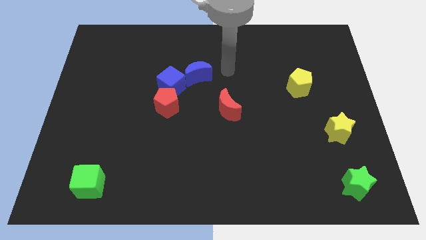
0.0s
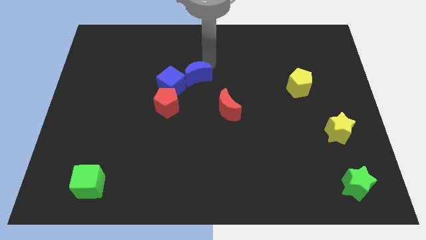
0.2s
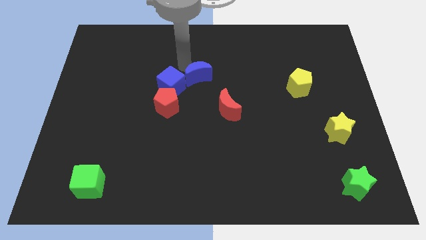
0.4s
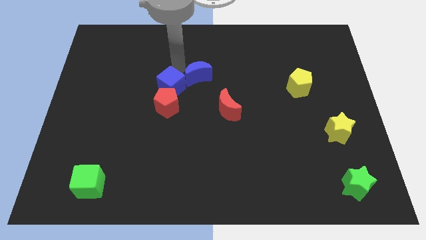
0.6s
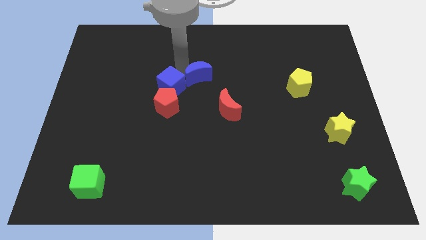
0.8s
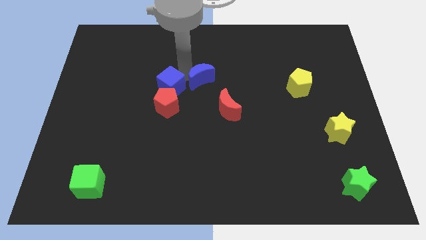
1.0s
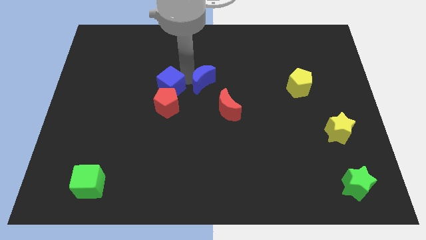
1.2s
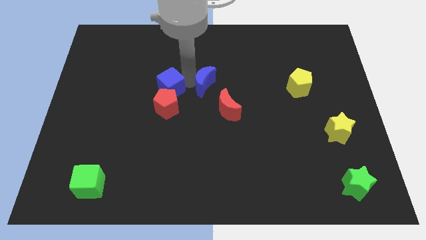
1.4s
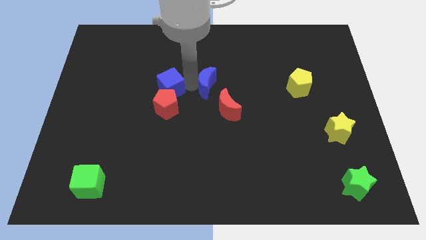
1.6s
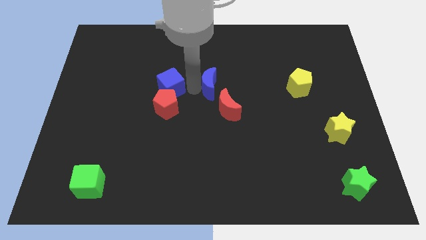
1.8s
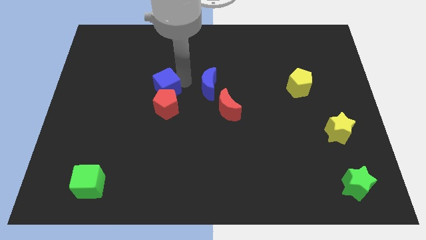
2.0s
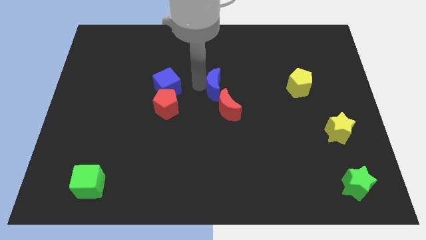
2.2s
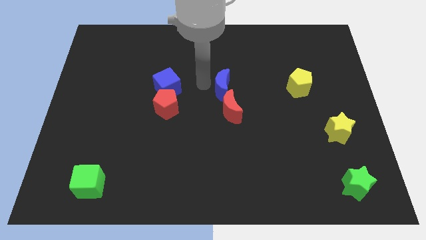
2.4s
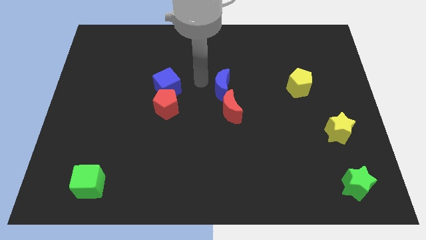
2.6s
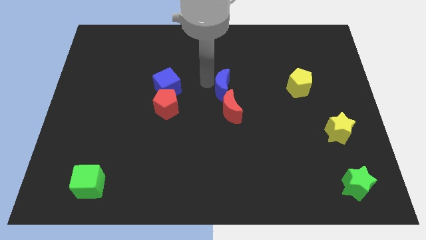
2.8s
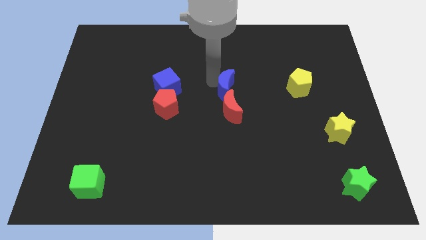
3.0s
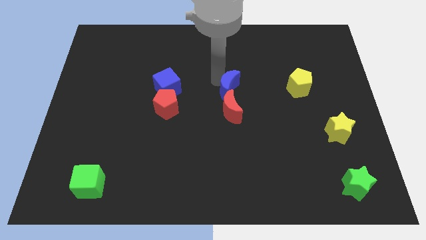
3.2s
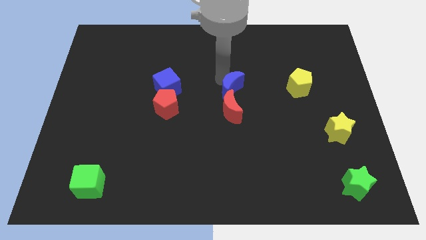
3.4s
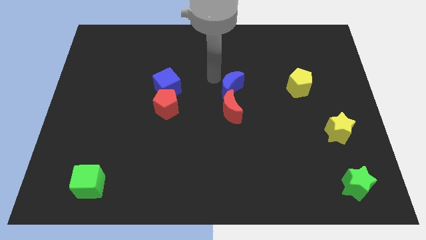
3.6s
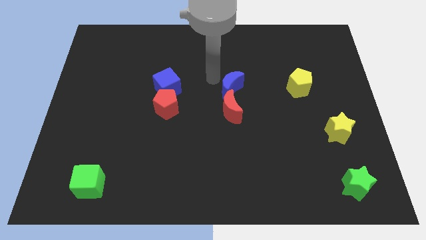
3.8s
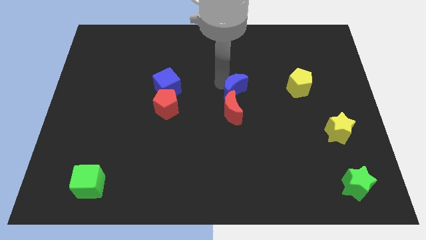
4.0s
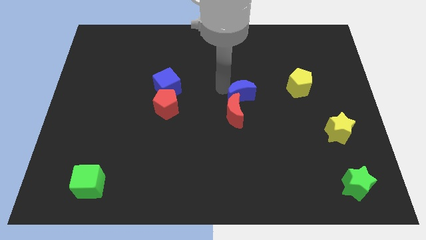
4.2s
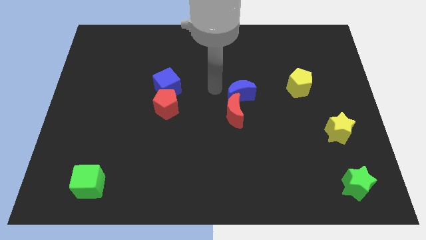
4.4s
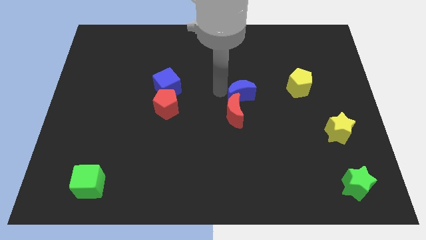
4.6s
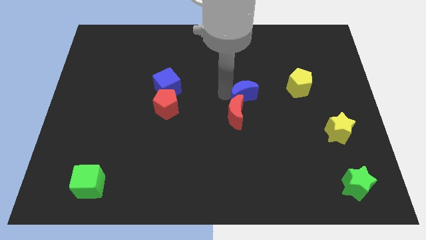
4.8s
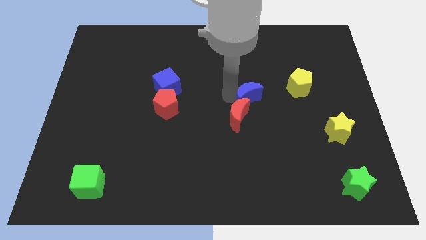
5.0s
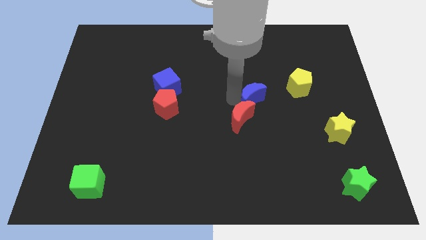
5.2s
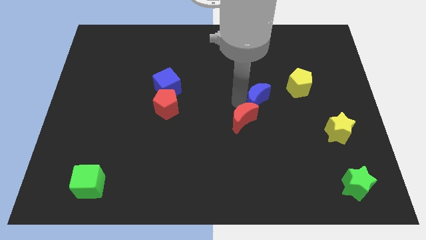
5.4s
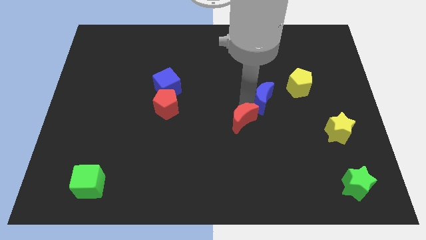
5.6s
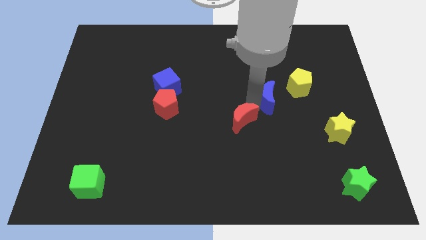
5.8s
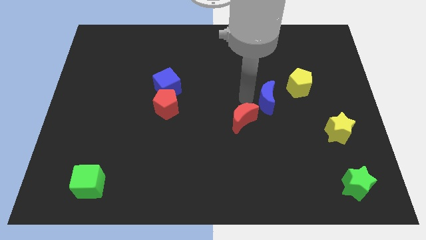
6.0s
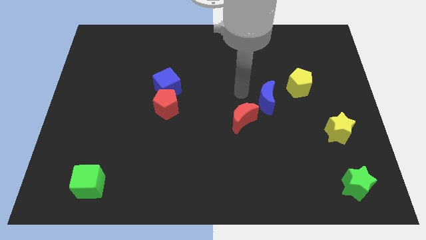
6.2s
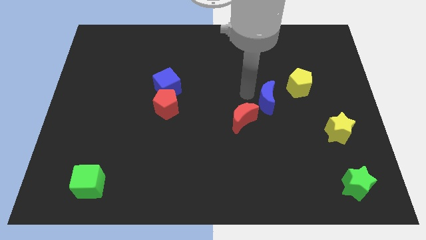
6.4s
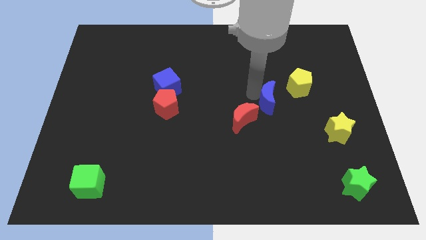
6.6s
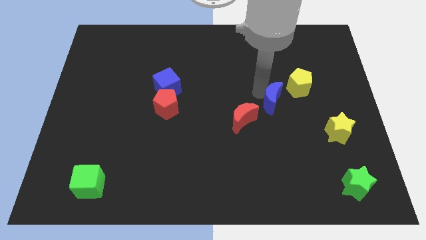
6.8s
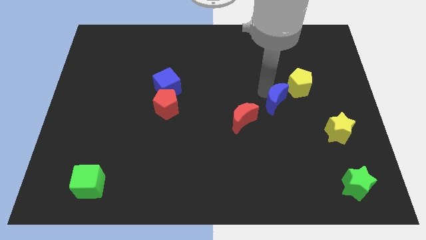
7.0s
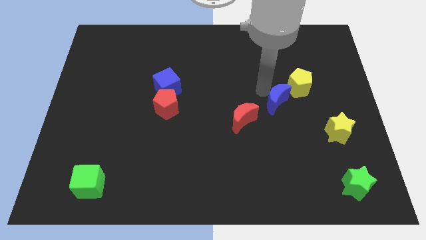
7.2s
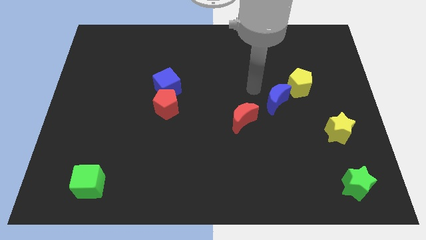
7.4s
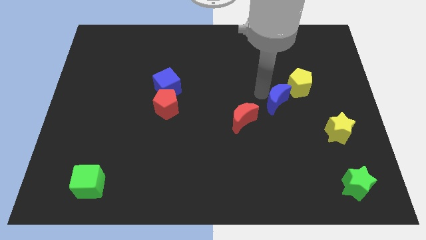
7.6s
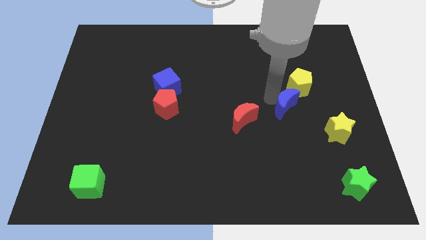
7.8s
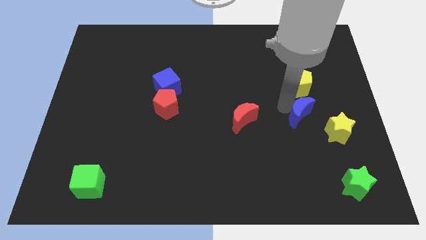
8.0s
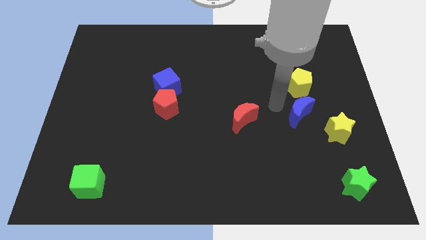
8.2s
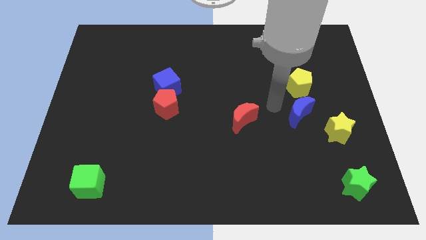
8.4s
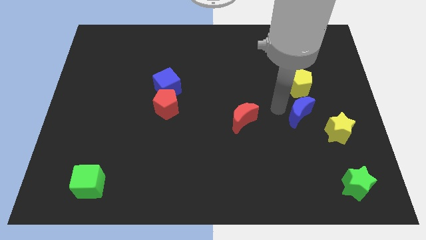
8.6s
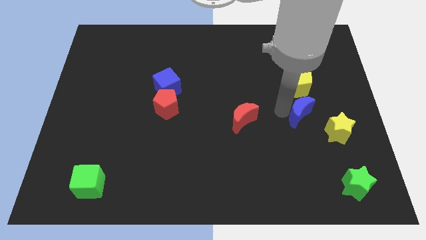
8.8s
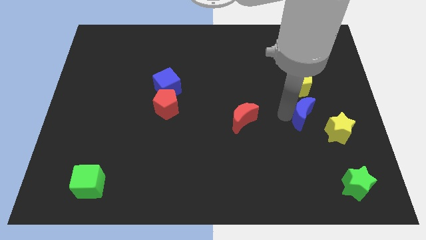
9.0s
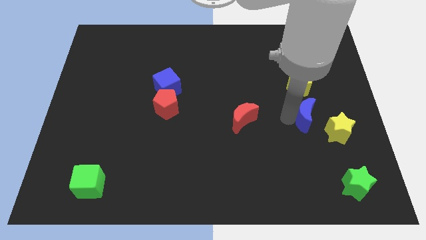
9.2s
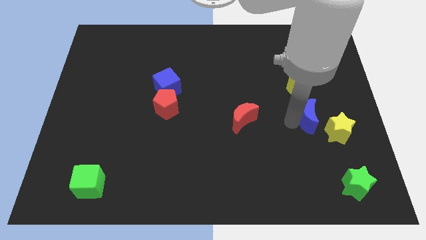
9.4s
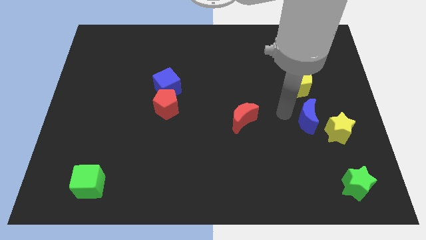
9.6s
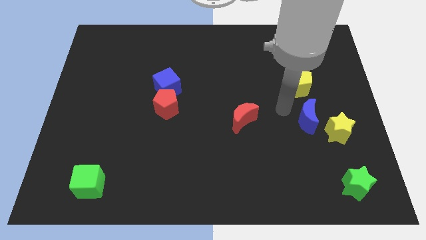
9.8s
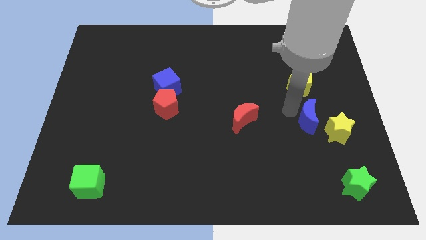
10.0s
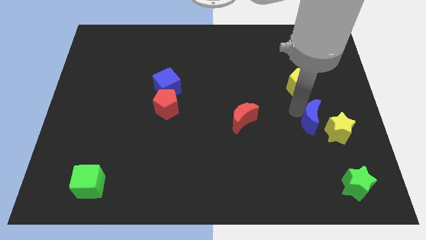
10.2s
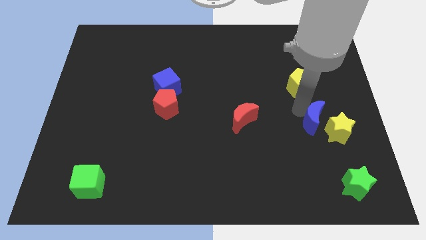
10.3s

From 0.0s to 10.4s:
slide the blue moon close to the yellow star

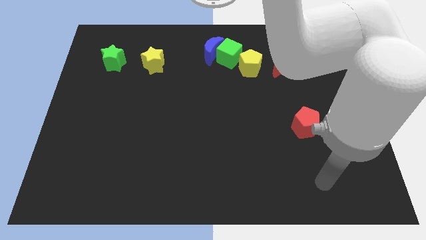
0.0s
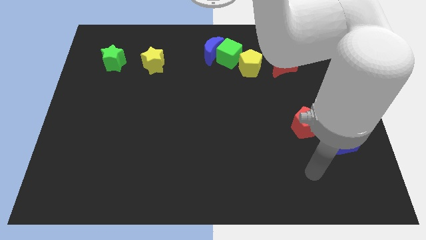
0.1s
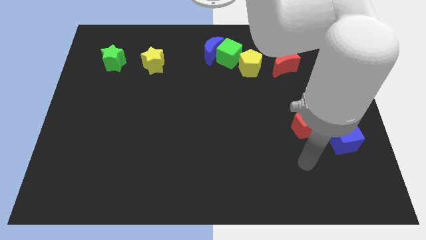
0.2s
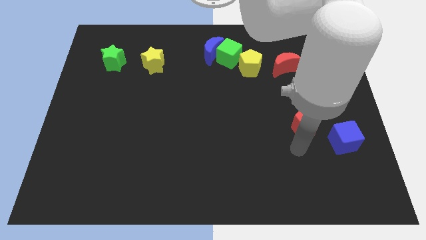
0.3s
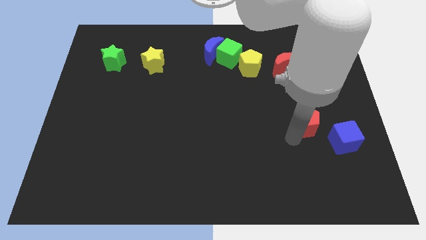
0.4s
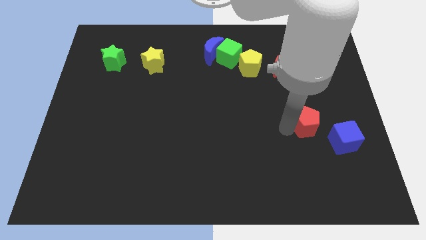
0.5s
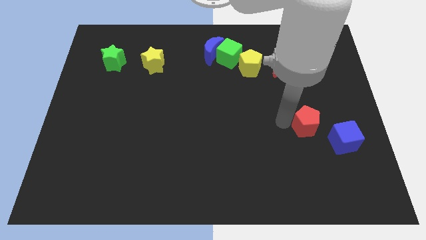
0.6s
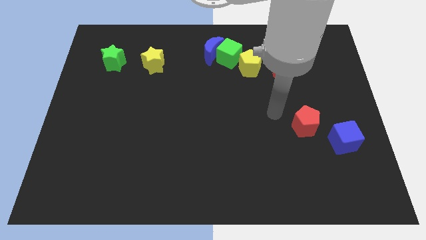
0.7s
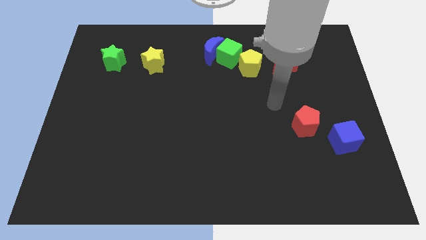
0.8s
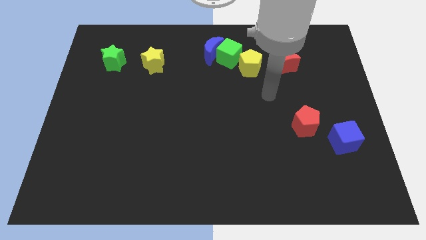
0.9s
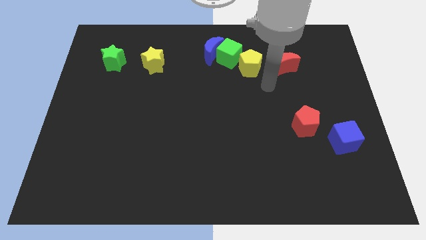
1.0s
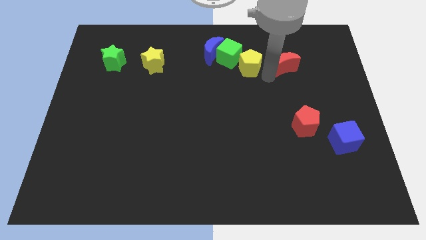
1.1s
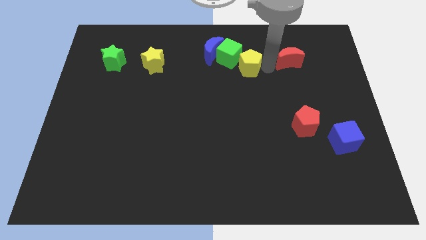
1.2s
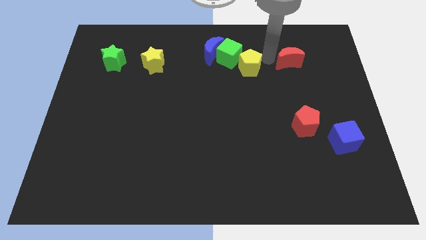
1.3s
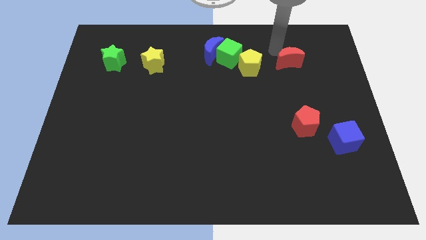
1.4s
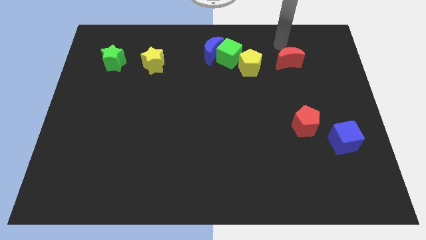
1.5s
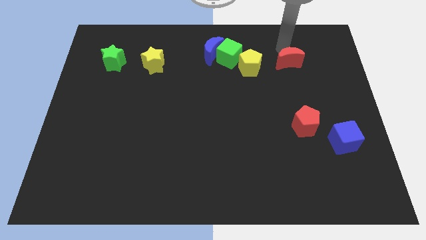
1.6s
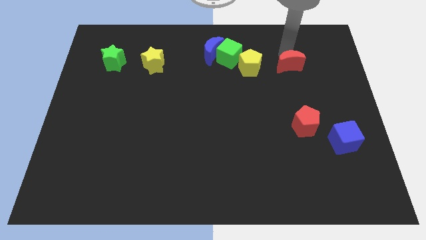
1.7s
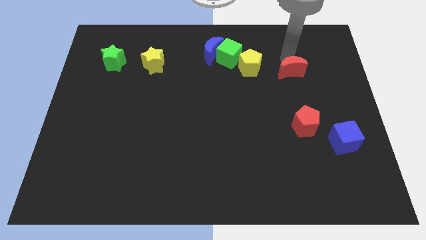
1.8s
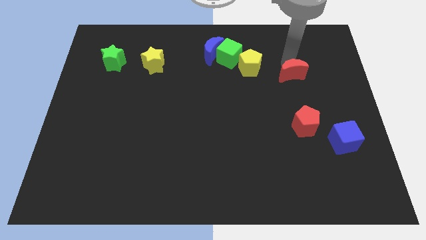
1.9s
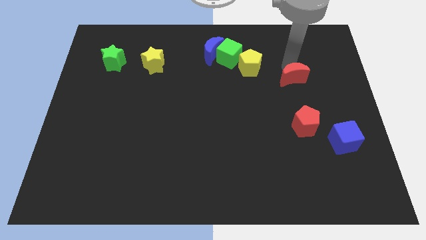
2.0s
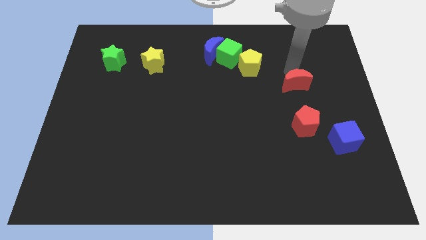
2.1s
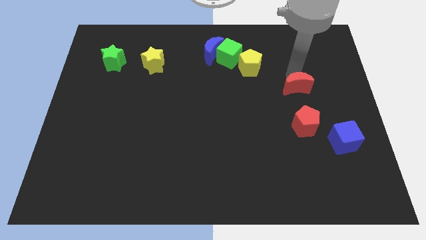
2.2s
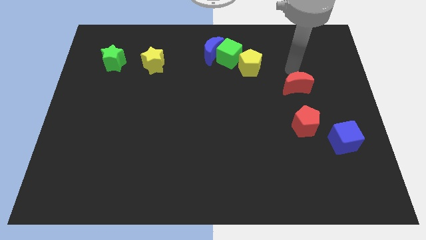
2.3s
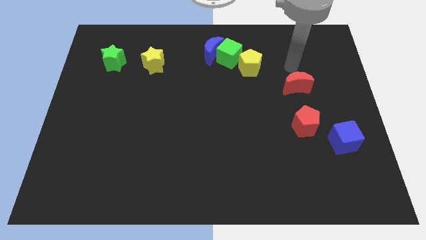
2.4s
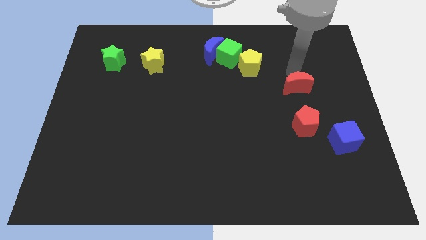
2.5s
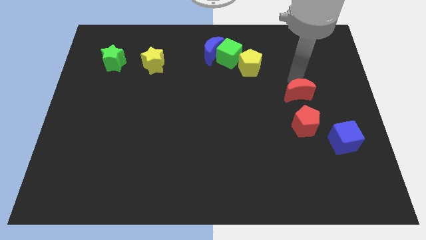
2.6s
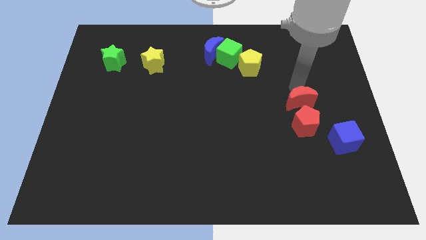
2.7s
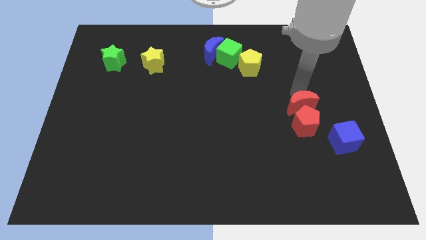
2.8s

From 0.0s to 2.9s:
put the red moon to the red pentagon

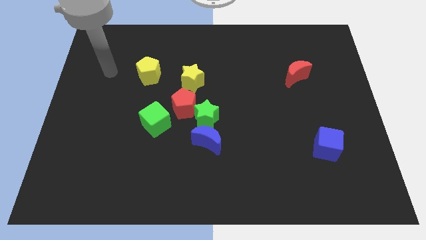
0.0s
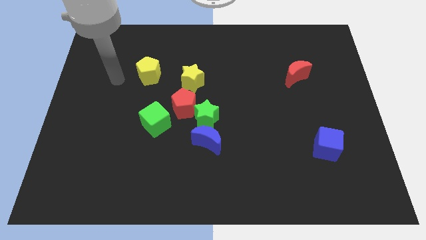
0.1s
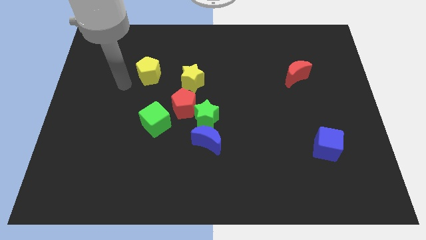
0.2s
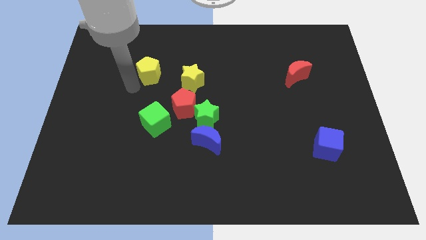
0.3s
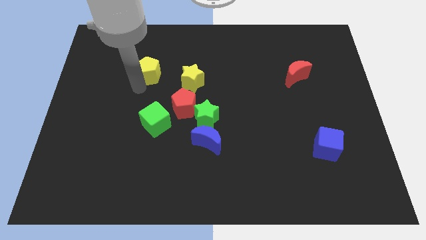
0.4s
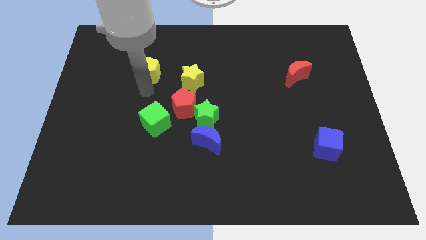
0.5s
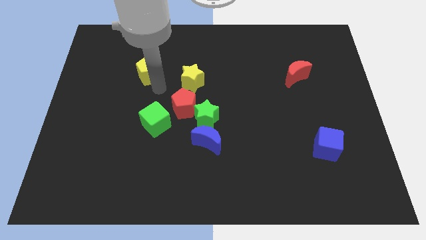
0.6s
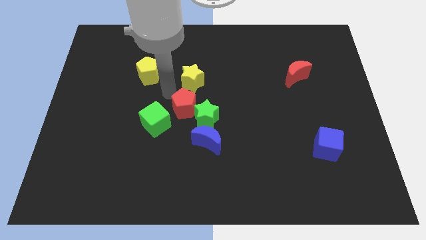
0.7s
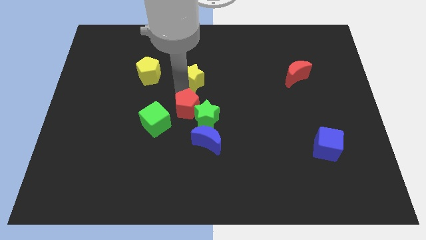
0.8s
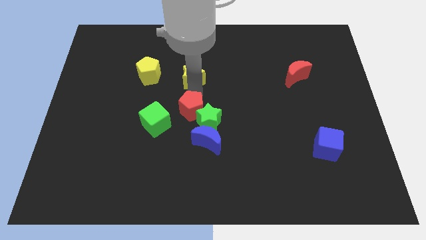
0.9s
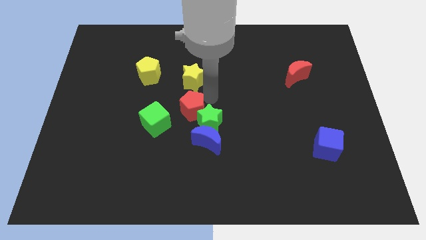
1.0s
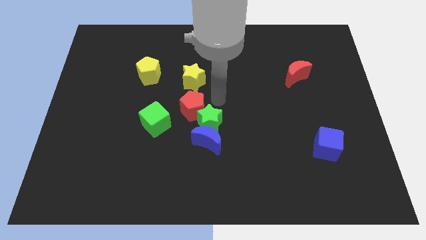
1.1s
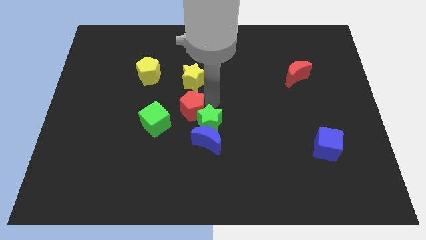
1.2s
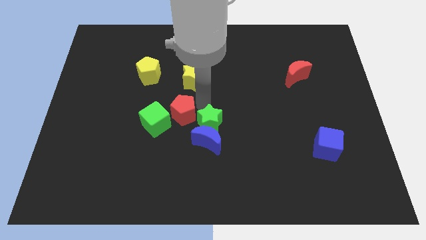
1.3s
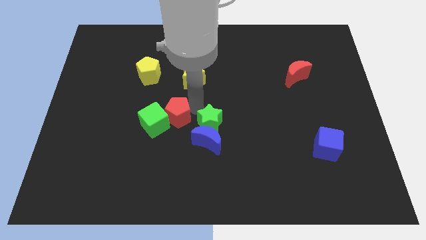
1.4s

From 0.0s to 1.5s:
move the red pentagon towards the green cube
